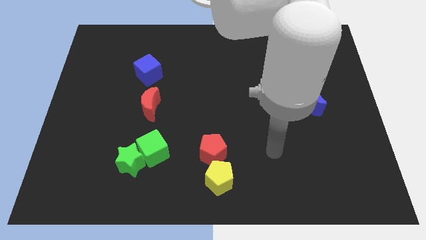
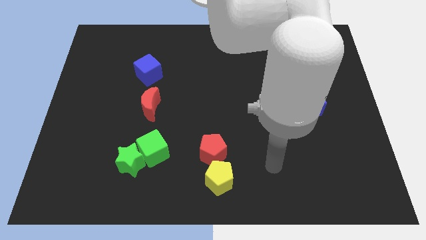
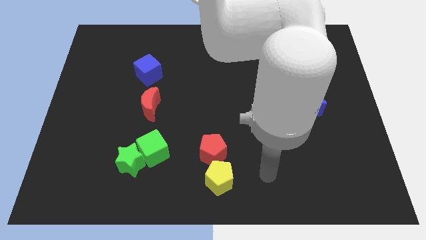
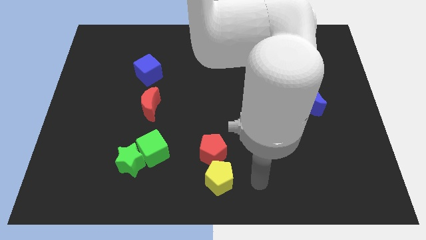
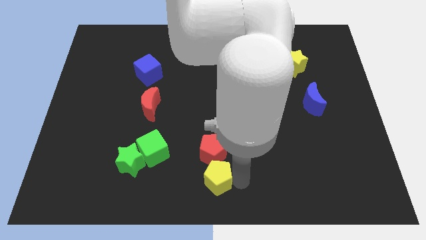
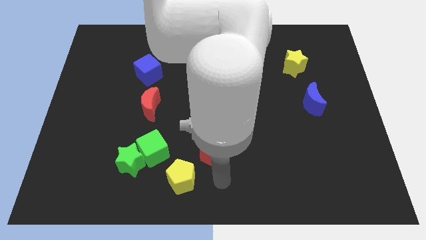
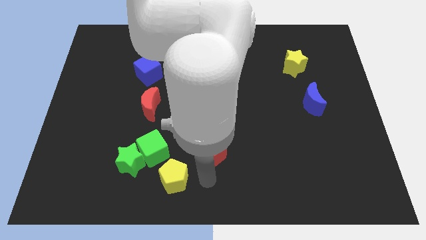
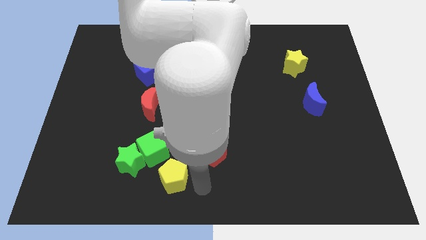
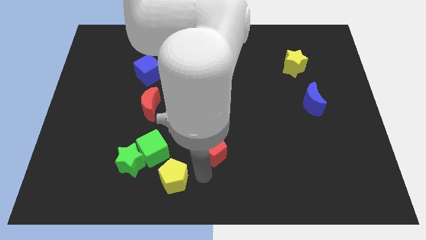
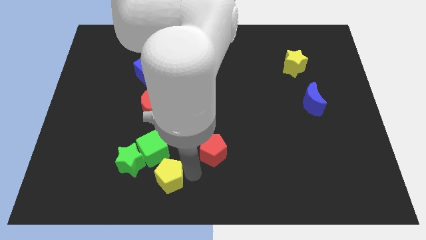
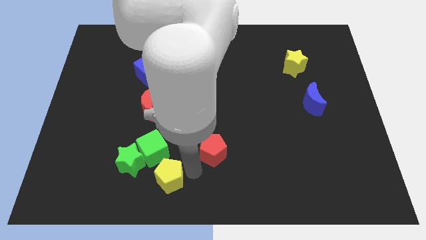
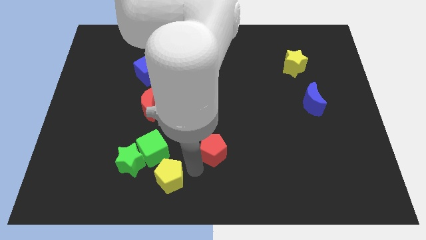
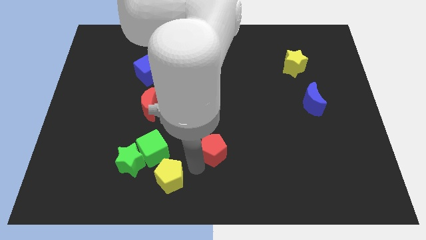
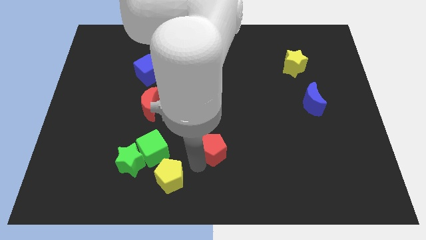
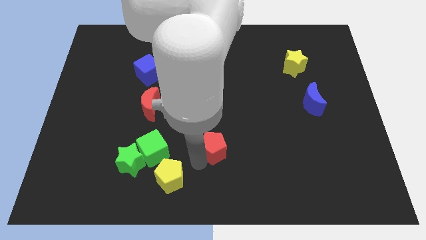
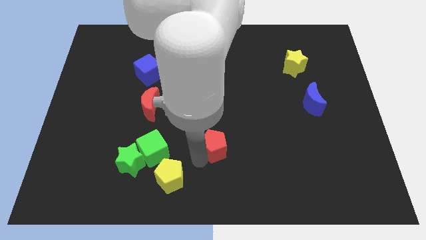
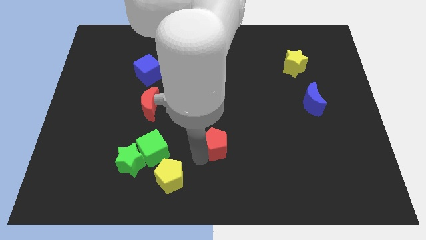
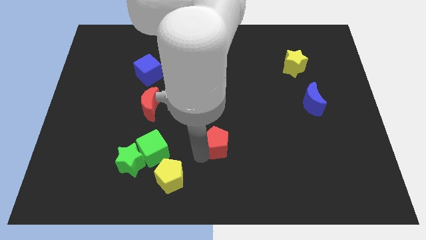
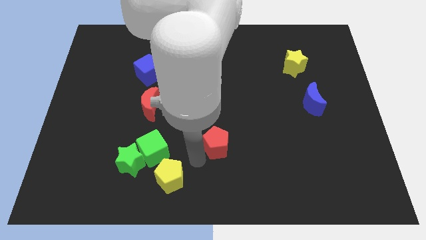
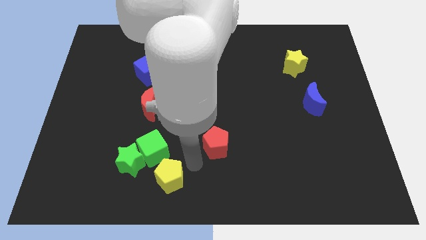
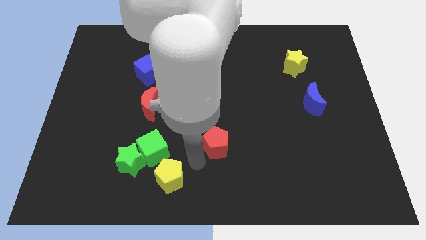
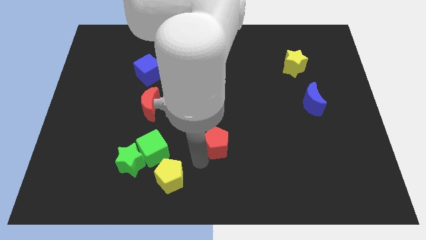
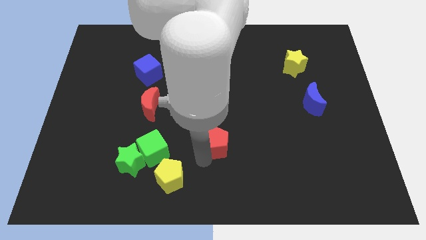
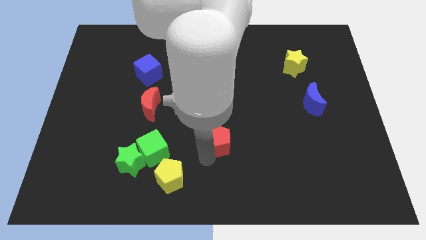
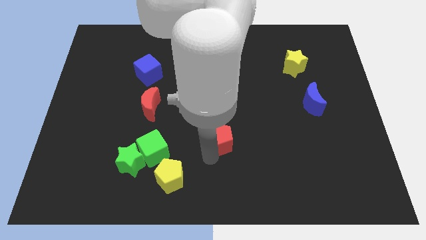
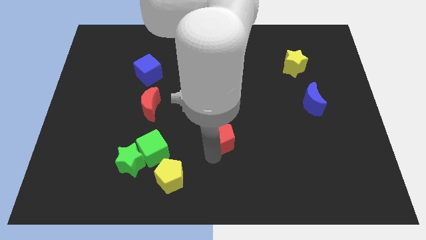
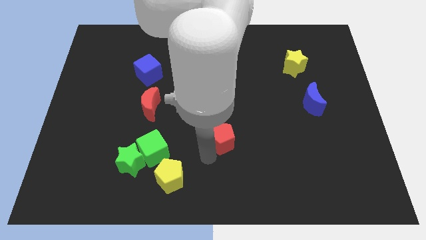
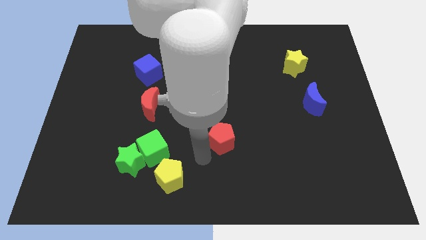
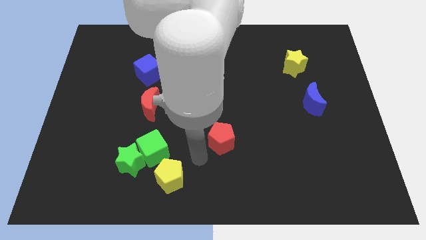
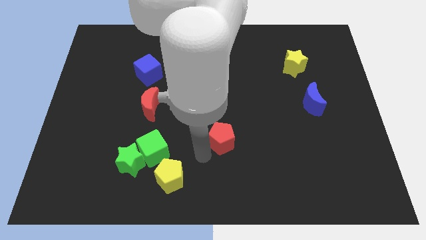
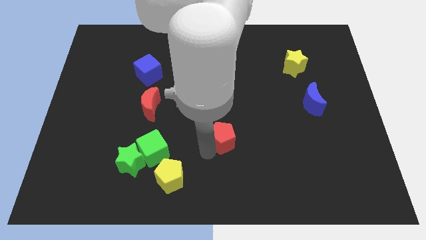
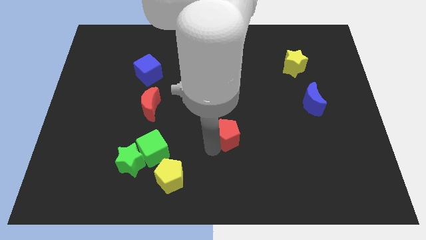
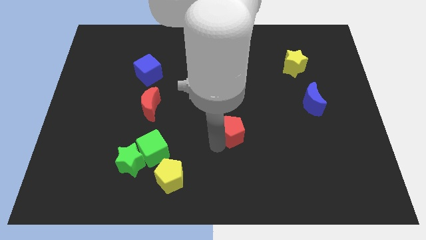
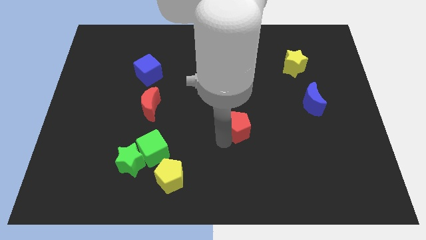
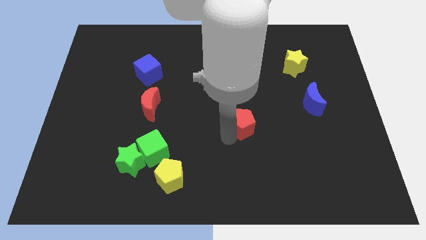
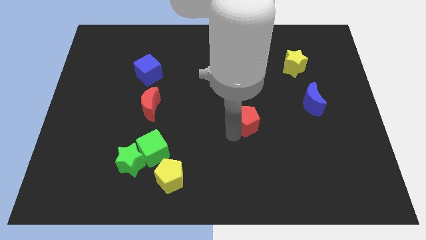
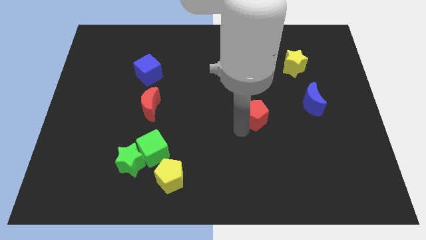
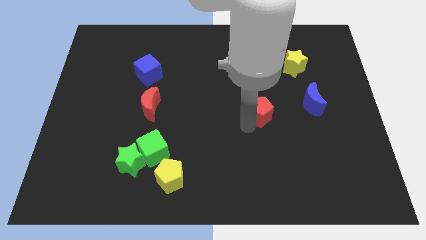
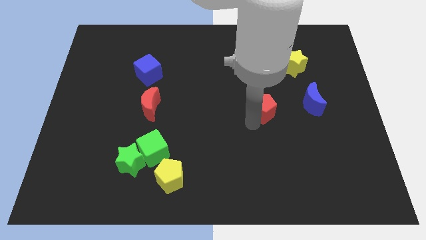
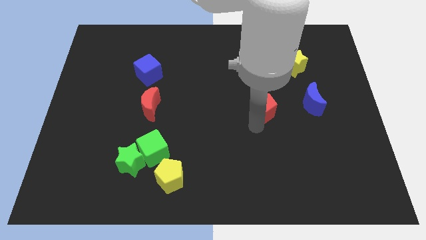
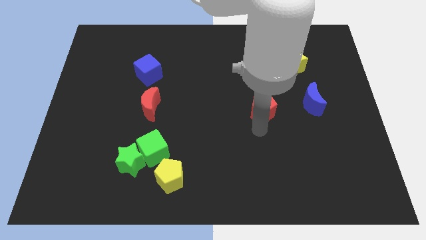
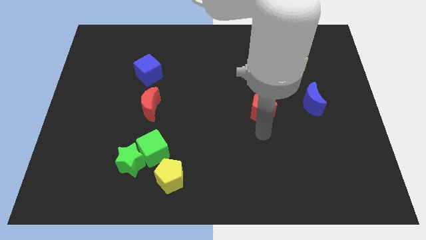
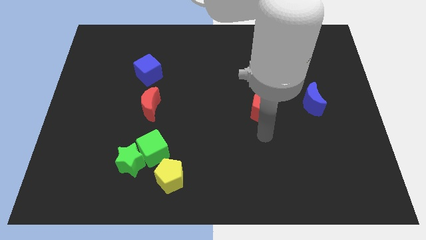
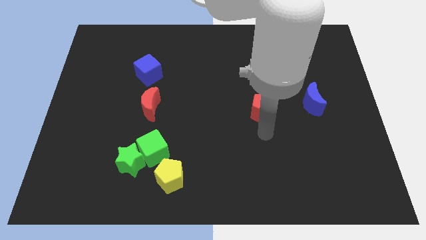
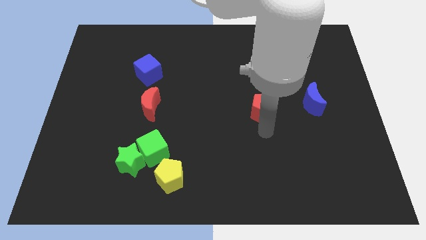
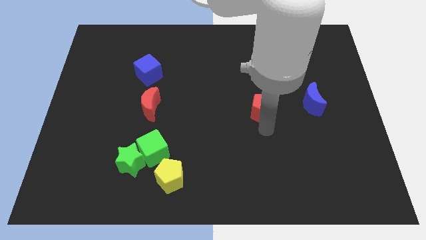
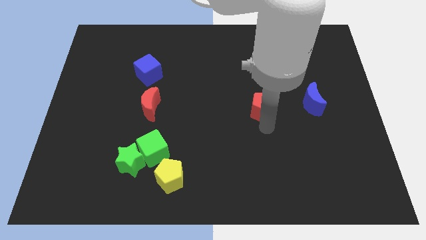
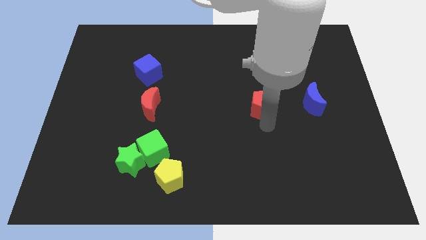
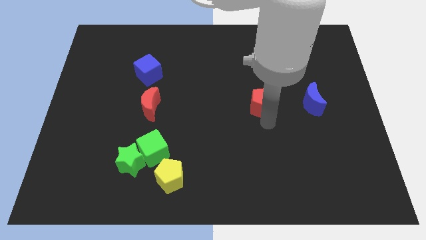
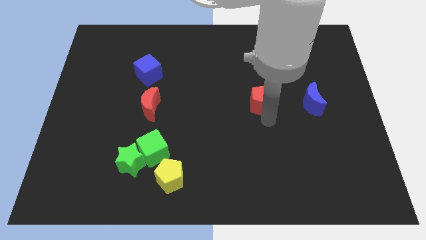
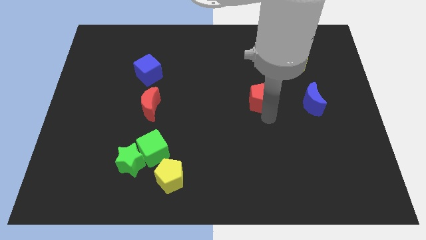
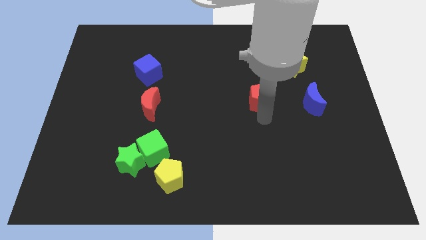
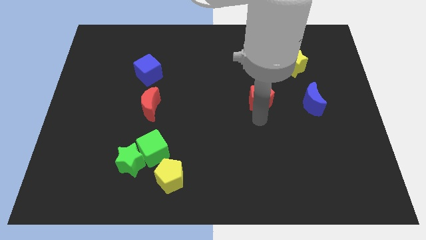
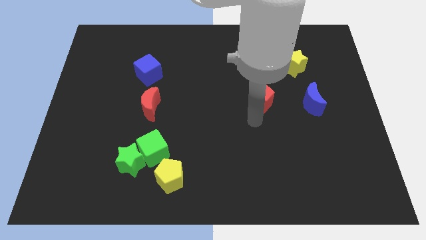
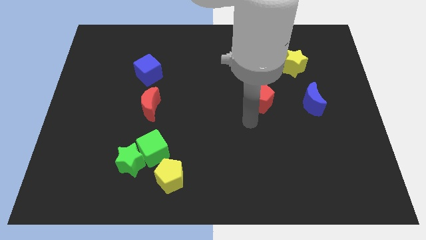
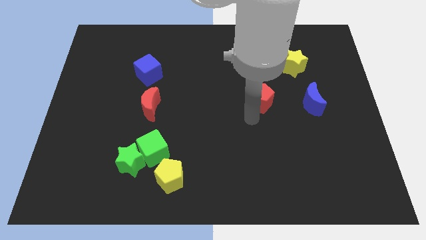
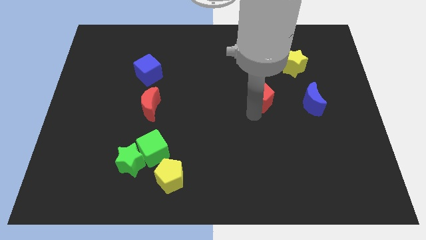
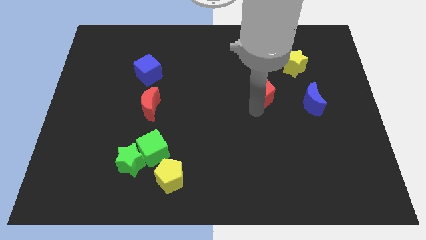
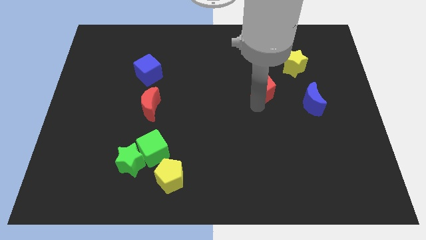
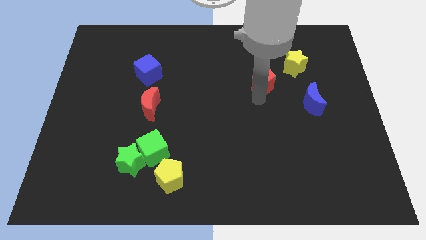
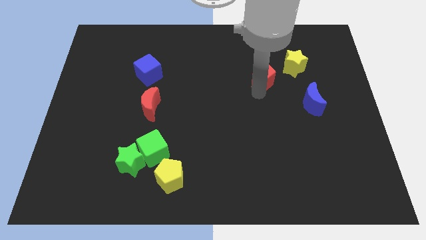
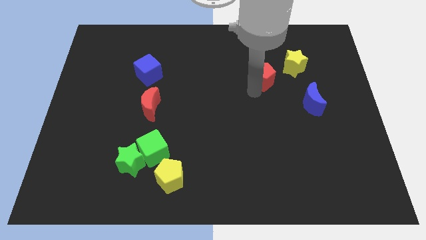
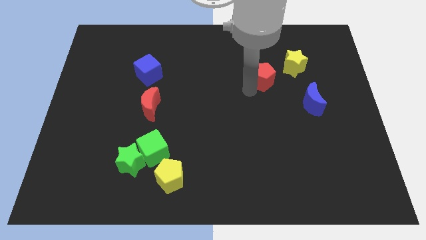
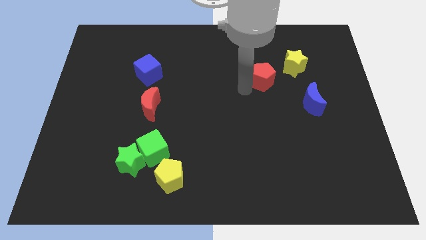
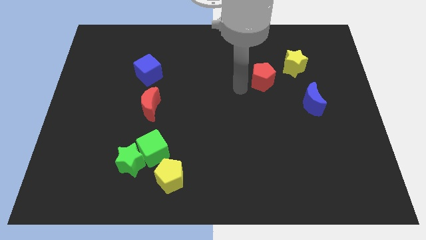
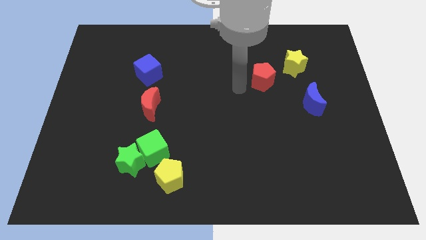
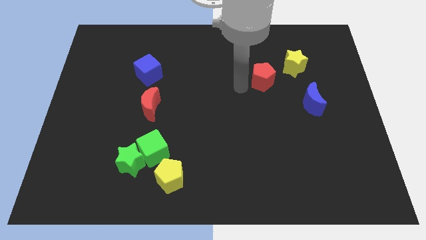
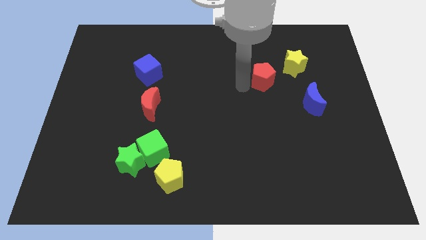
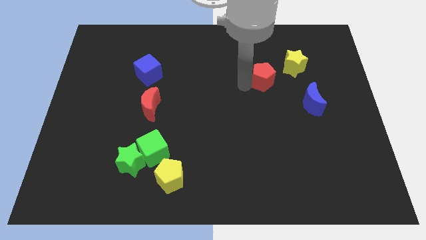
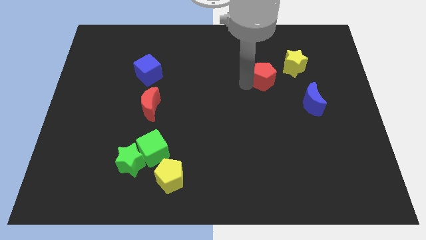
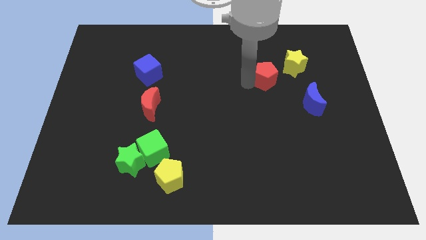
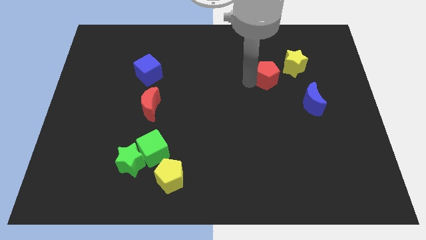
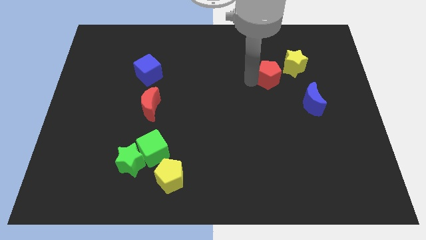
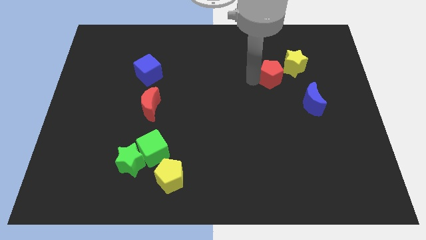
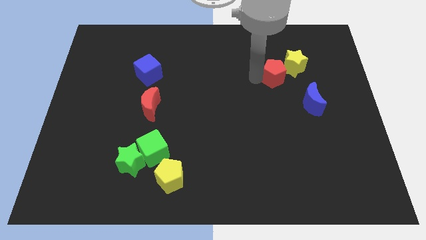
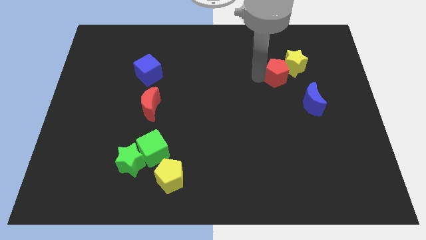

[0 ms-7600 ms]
slide the red pentagon next to the yellow star
